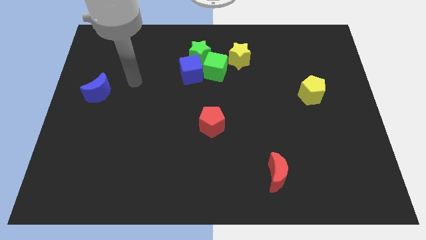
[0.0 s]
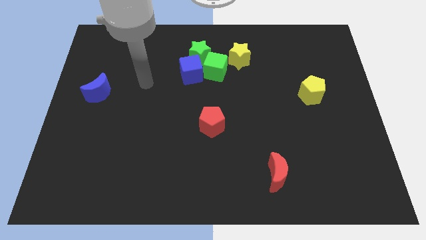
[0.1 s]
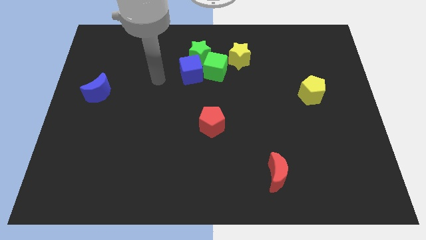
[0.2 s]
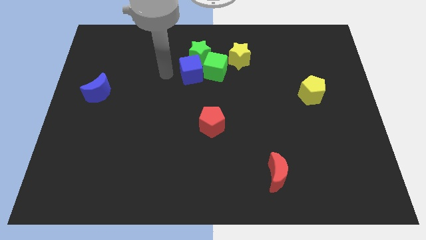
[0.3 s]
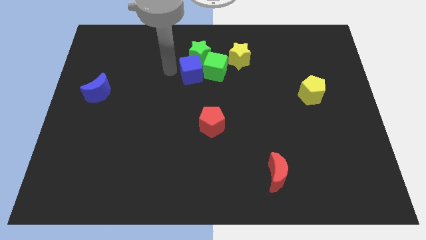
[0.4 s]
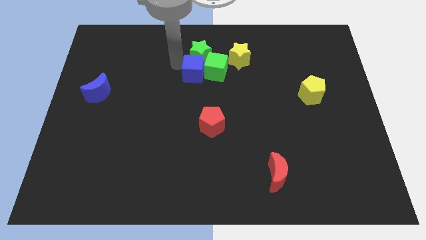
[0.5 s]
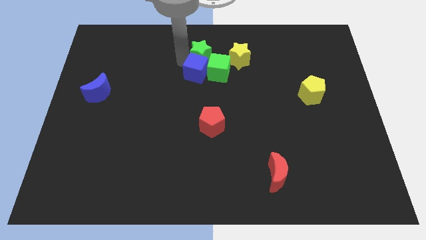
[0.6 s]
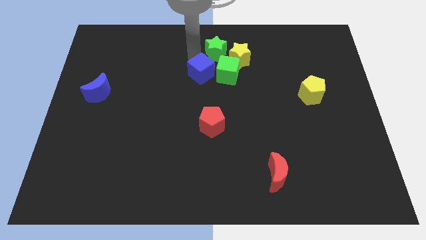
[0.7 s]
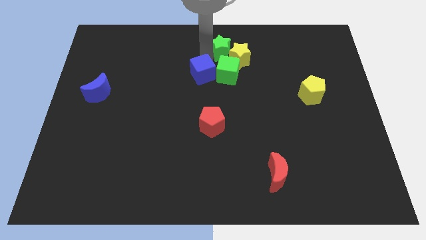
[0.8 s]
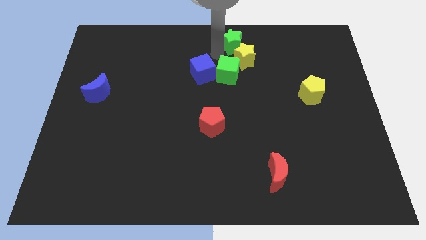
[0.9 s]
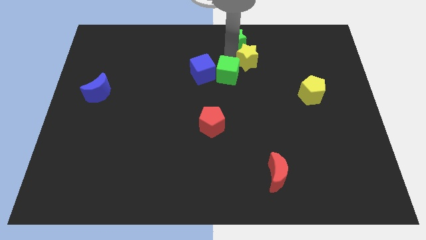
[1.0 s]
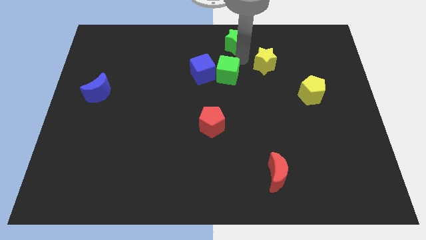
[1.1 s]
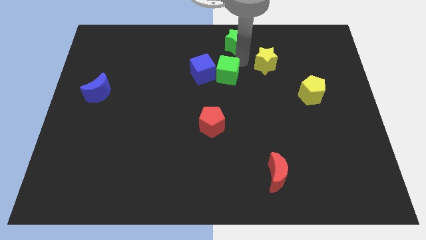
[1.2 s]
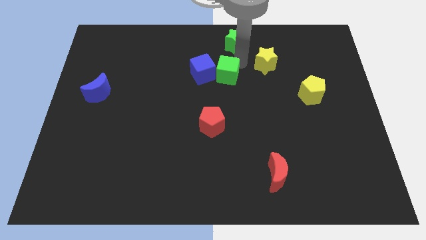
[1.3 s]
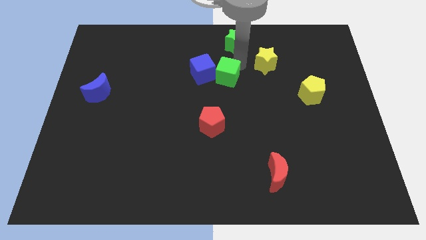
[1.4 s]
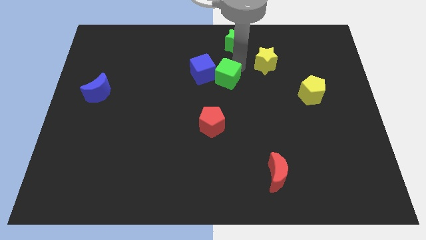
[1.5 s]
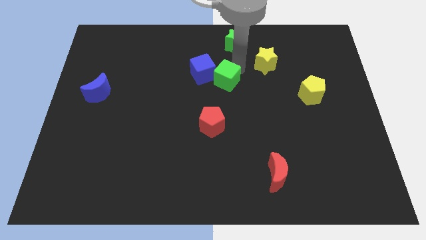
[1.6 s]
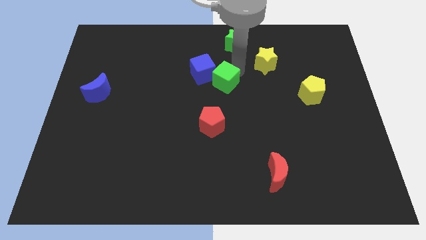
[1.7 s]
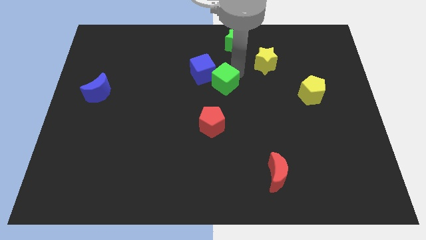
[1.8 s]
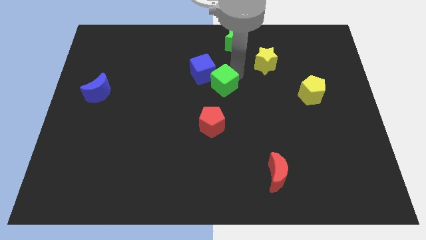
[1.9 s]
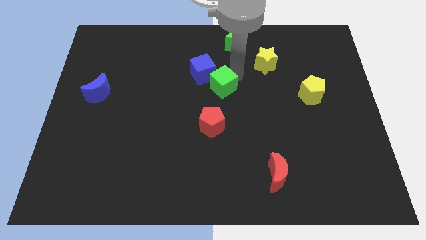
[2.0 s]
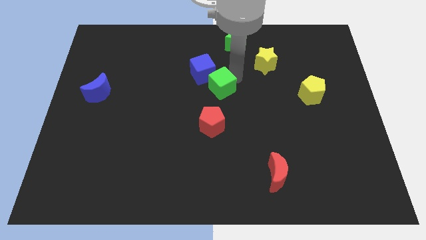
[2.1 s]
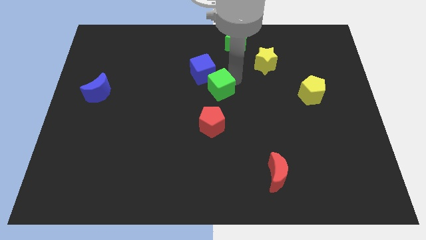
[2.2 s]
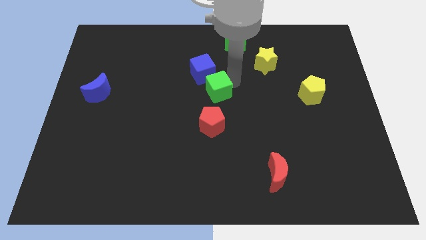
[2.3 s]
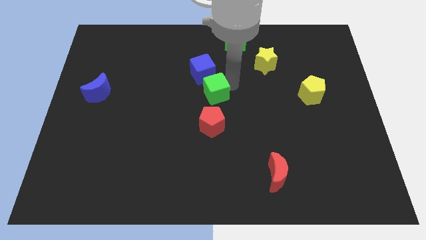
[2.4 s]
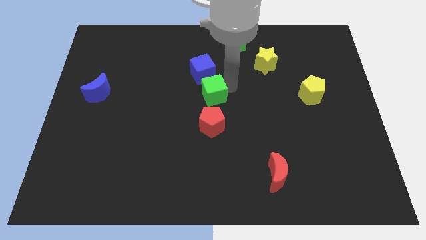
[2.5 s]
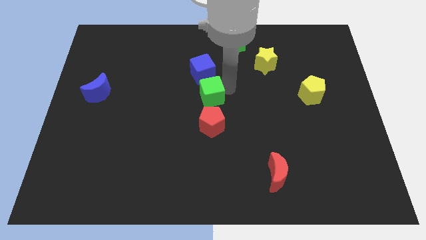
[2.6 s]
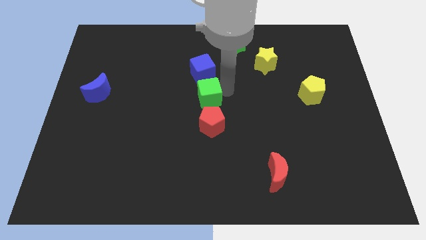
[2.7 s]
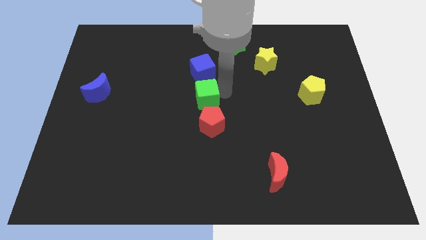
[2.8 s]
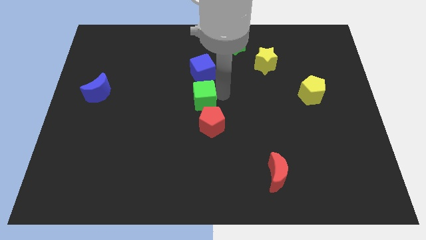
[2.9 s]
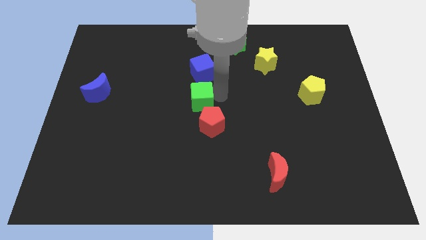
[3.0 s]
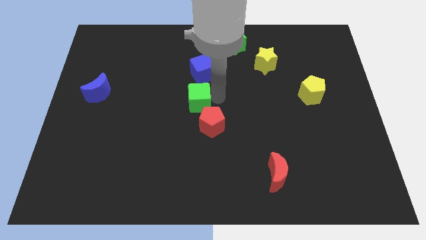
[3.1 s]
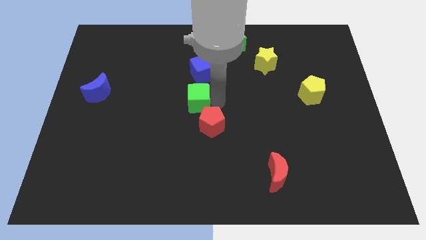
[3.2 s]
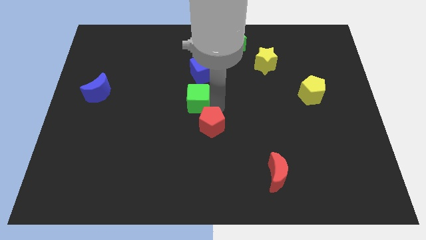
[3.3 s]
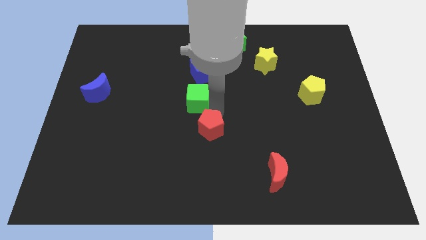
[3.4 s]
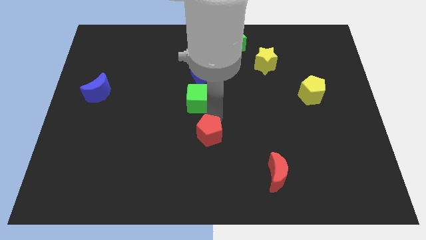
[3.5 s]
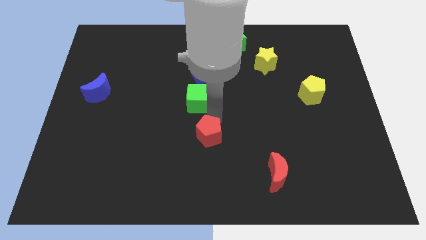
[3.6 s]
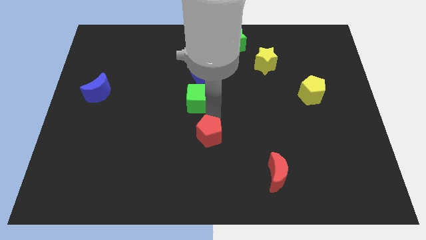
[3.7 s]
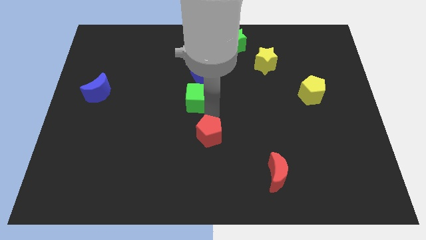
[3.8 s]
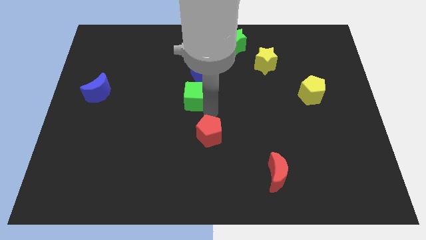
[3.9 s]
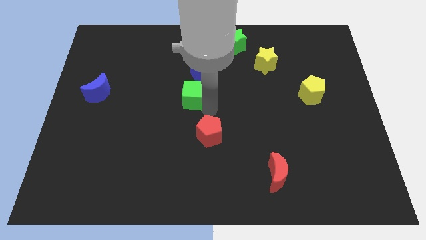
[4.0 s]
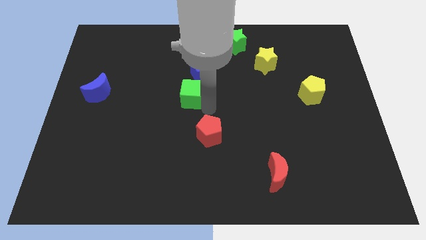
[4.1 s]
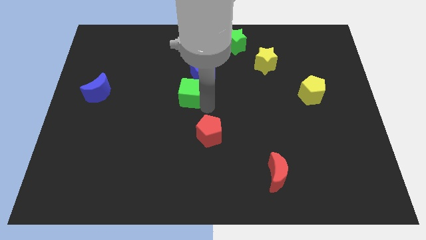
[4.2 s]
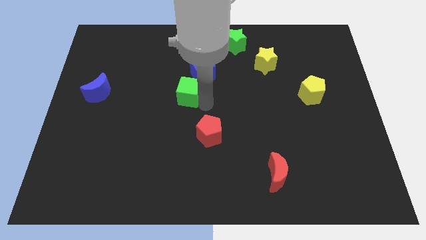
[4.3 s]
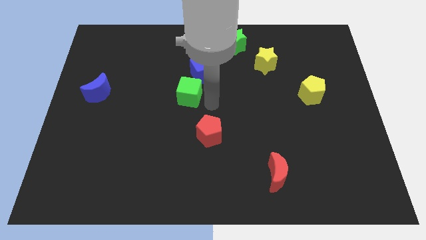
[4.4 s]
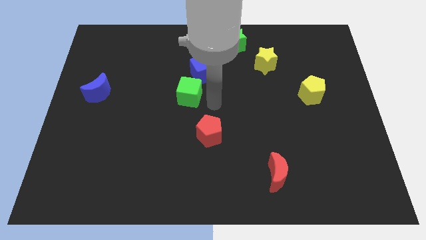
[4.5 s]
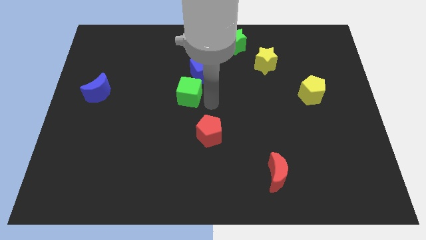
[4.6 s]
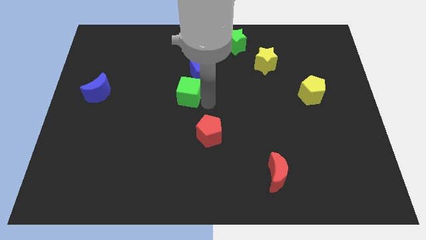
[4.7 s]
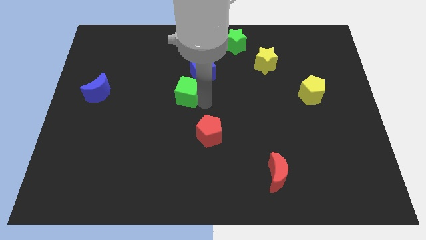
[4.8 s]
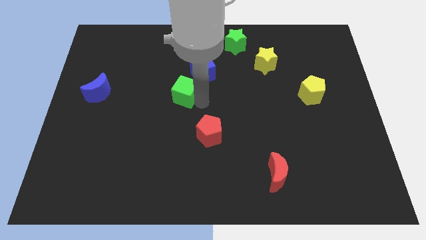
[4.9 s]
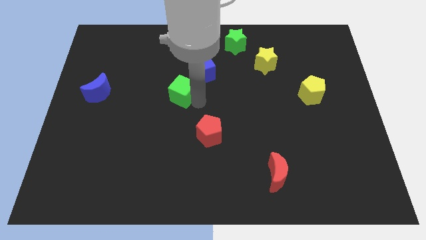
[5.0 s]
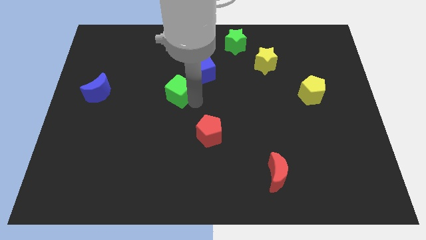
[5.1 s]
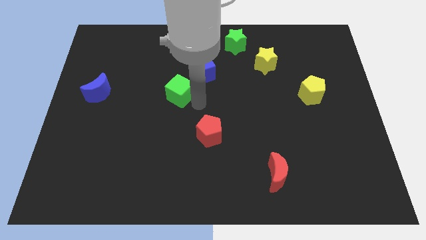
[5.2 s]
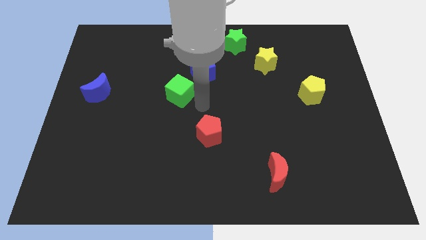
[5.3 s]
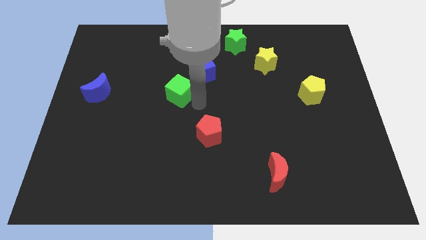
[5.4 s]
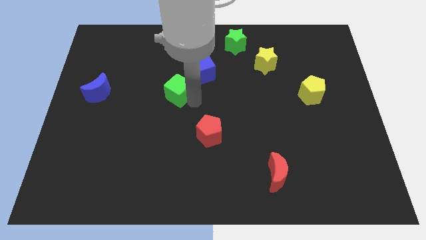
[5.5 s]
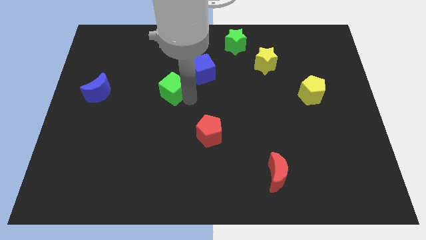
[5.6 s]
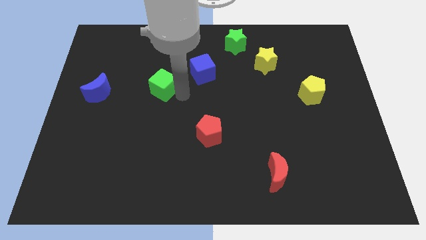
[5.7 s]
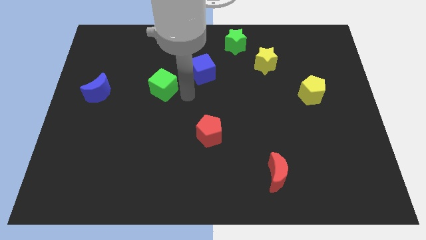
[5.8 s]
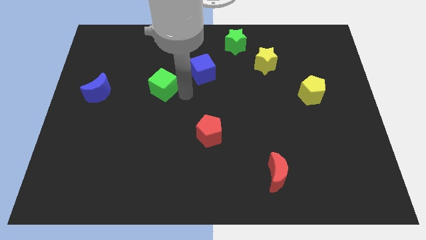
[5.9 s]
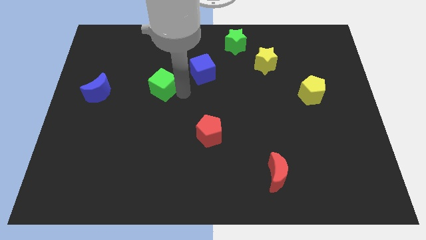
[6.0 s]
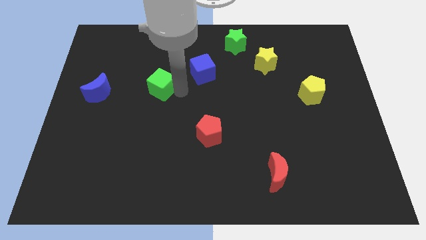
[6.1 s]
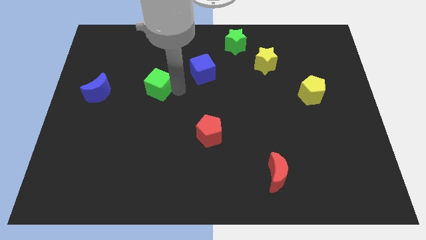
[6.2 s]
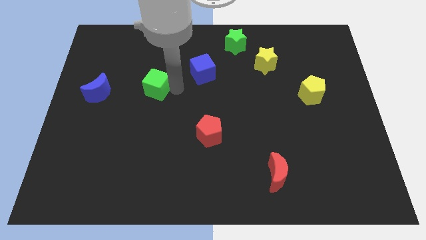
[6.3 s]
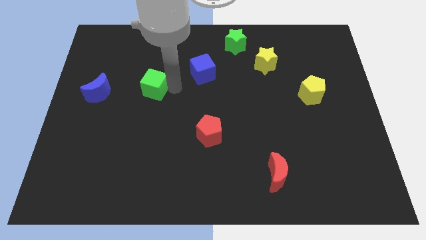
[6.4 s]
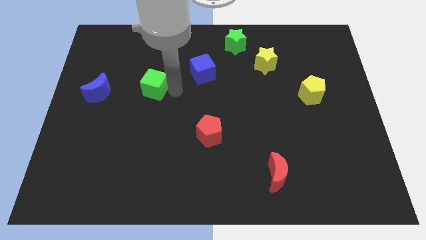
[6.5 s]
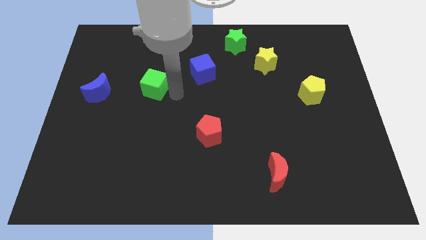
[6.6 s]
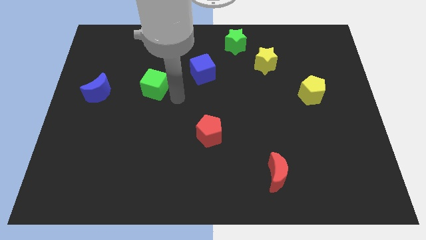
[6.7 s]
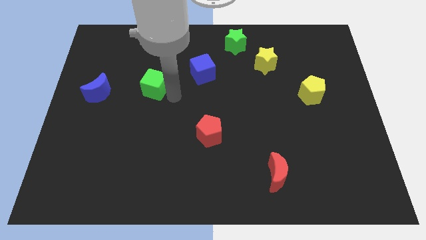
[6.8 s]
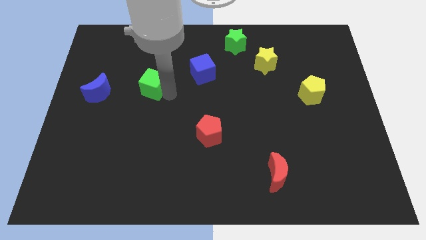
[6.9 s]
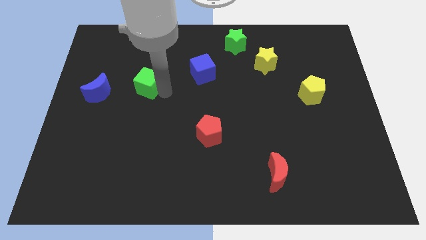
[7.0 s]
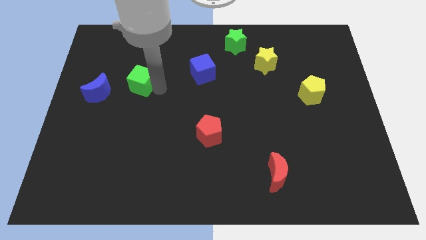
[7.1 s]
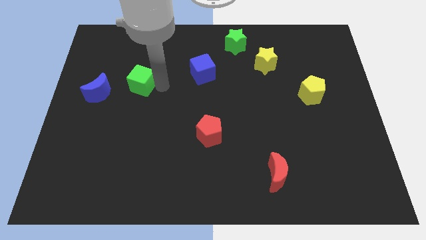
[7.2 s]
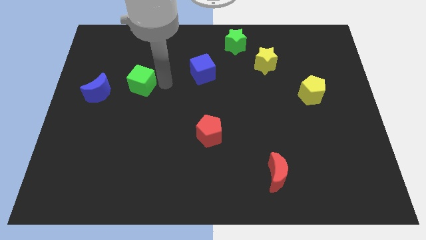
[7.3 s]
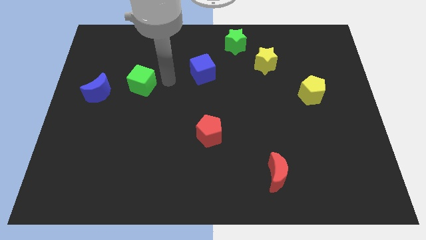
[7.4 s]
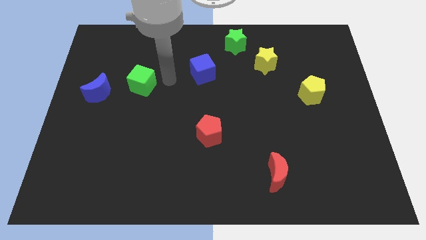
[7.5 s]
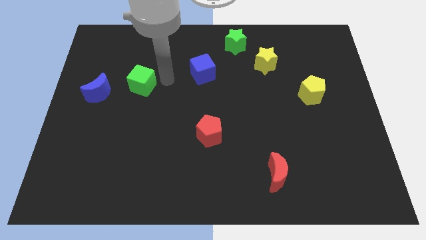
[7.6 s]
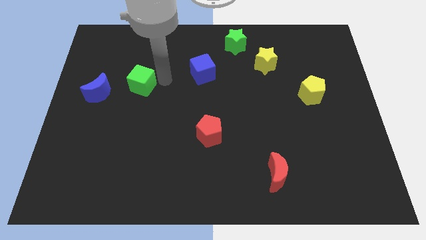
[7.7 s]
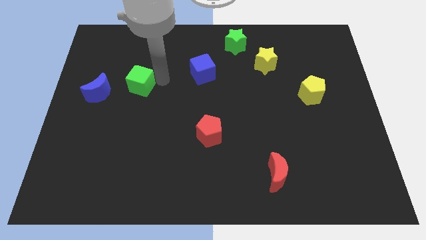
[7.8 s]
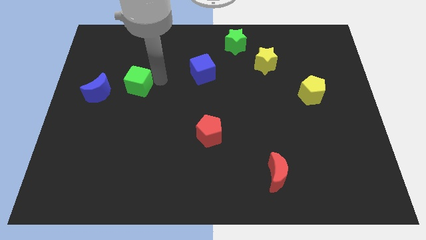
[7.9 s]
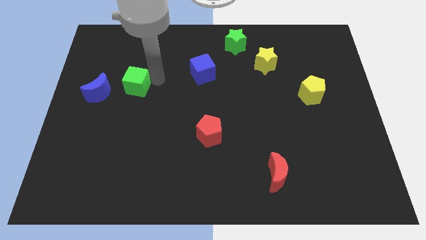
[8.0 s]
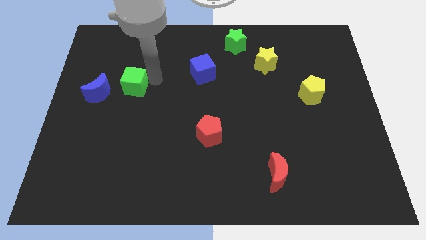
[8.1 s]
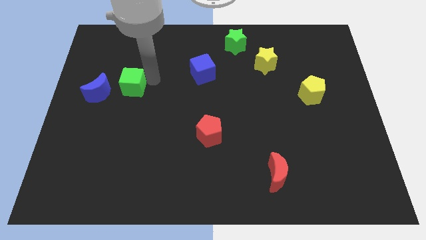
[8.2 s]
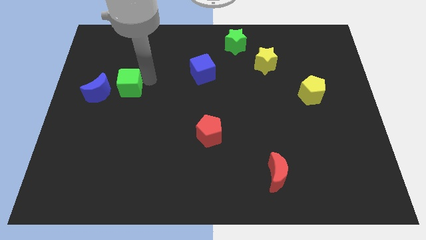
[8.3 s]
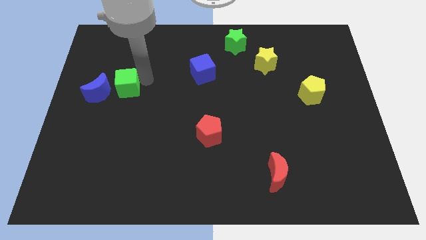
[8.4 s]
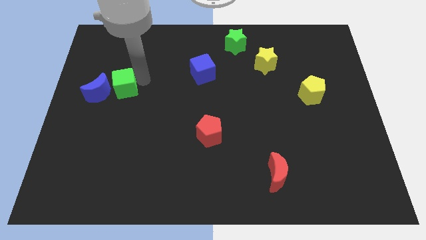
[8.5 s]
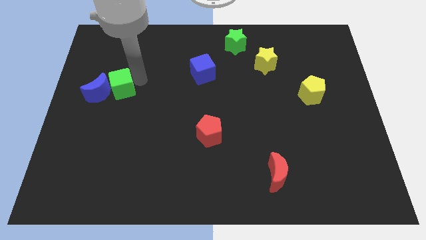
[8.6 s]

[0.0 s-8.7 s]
put the green cube close to the blue moon
